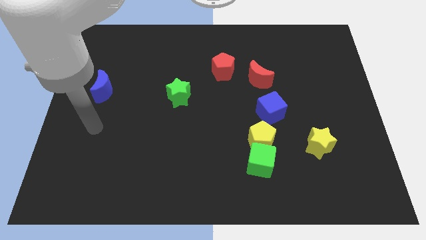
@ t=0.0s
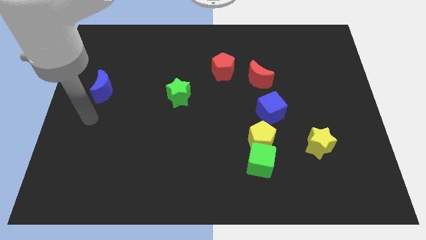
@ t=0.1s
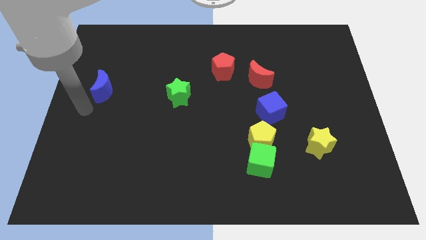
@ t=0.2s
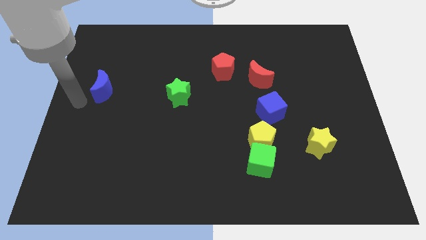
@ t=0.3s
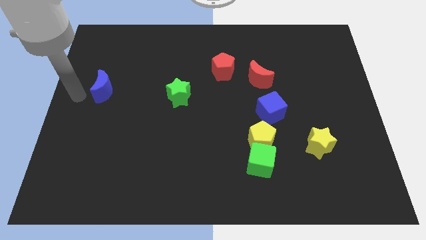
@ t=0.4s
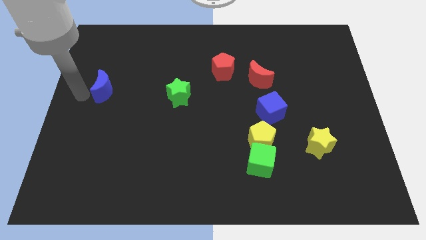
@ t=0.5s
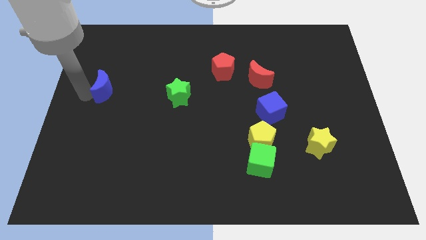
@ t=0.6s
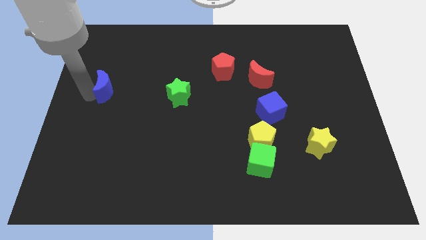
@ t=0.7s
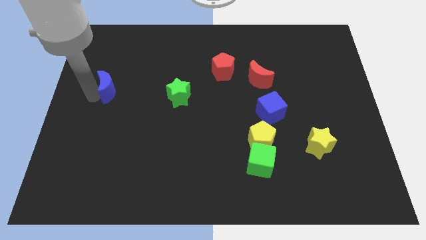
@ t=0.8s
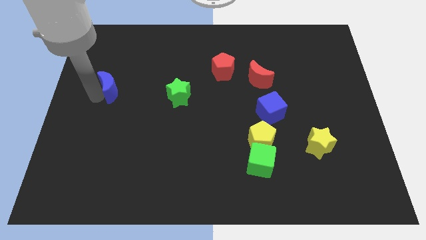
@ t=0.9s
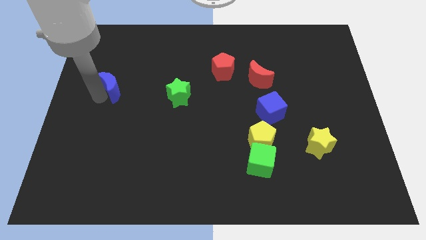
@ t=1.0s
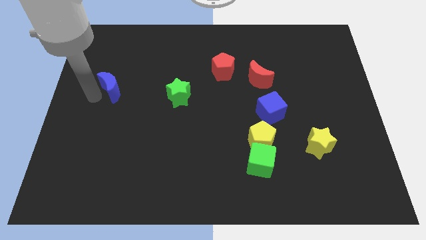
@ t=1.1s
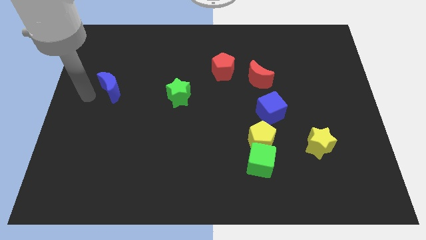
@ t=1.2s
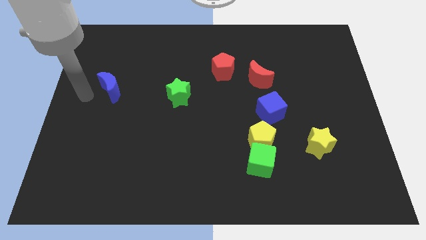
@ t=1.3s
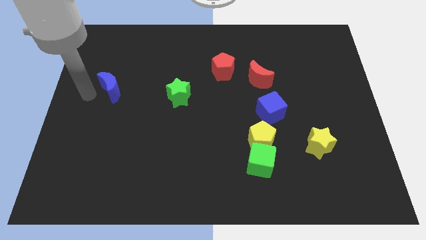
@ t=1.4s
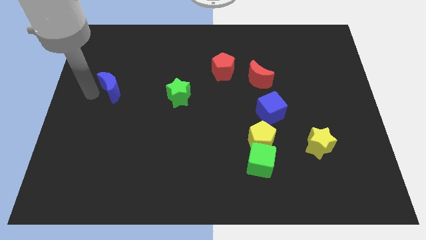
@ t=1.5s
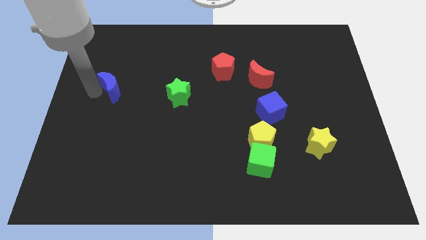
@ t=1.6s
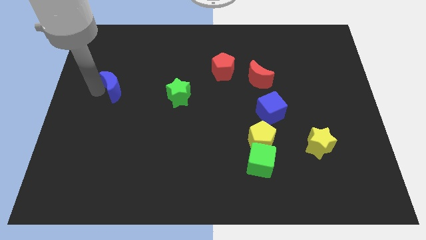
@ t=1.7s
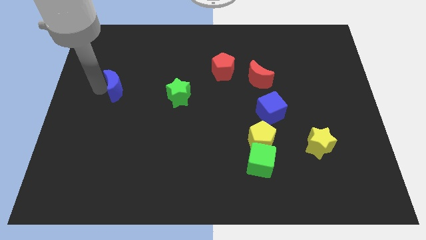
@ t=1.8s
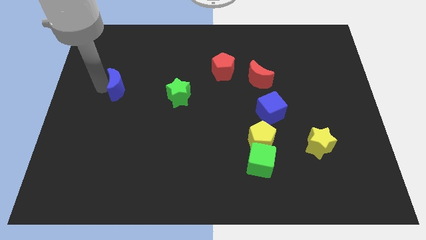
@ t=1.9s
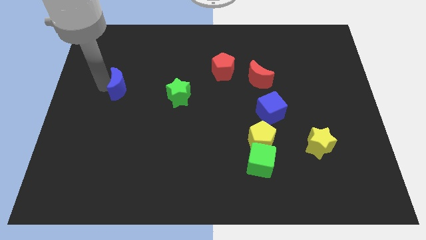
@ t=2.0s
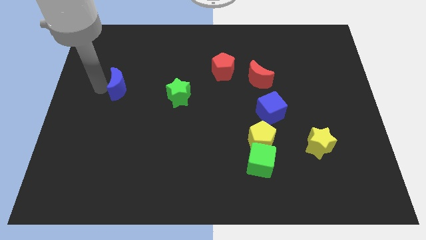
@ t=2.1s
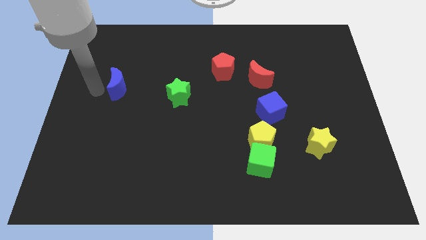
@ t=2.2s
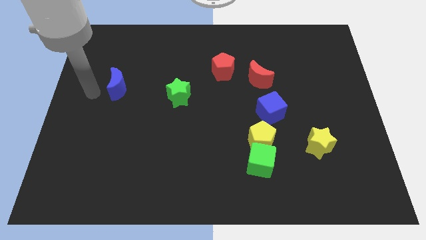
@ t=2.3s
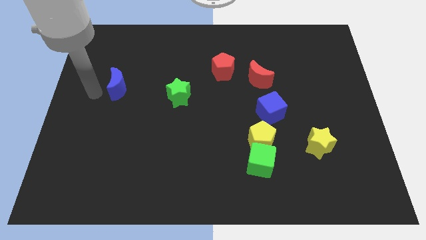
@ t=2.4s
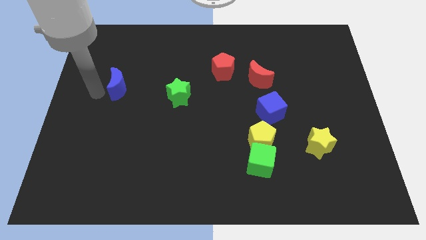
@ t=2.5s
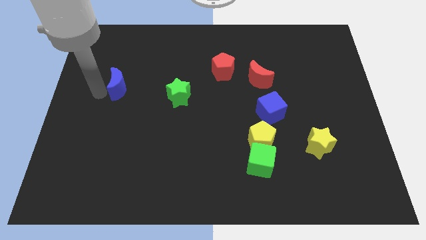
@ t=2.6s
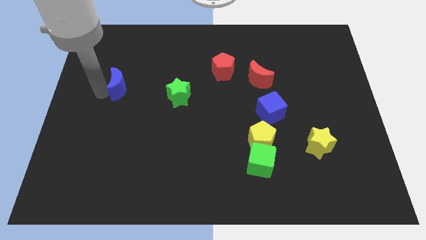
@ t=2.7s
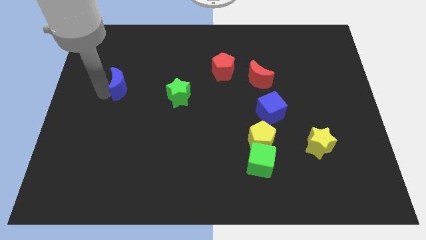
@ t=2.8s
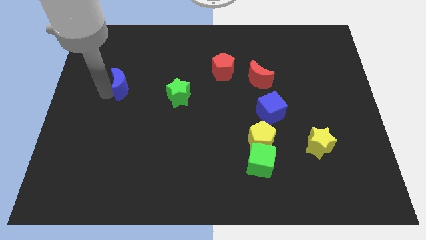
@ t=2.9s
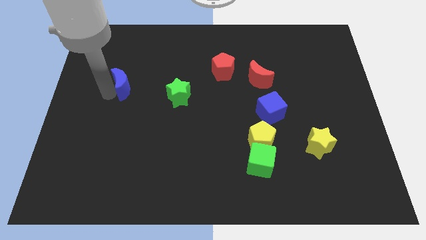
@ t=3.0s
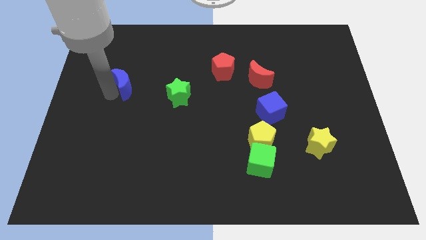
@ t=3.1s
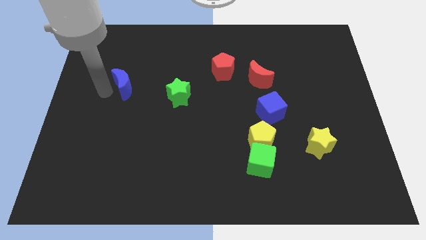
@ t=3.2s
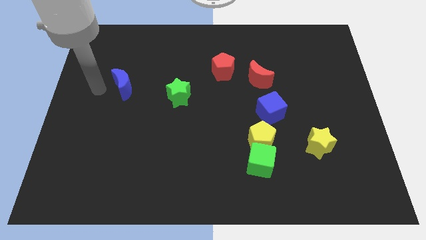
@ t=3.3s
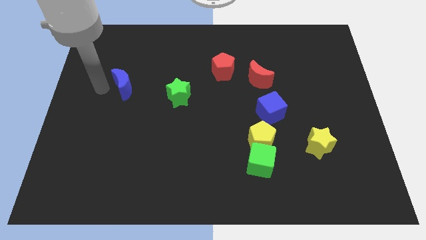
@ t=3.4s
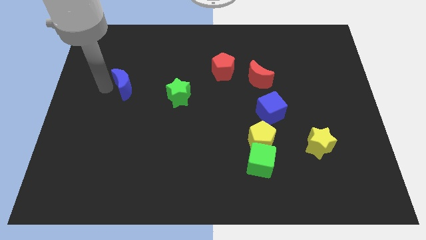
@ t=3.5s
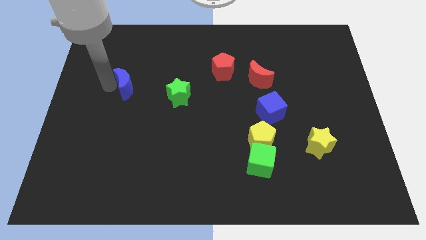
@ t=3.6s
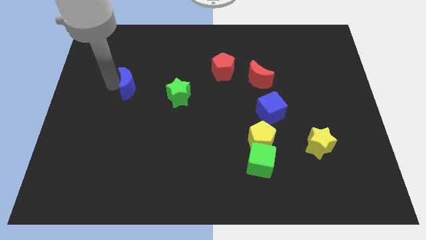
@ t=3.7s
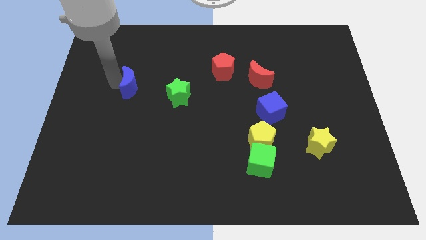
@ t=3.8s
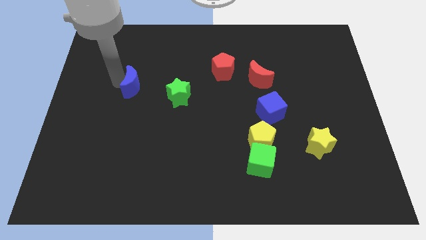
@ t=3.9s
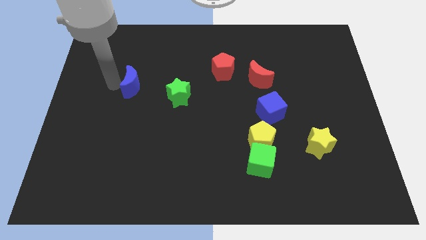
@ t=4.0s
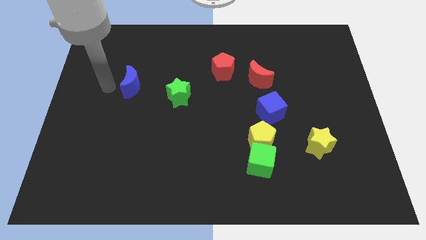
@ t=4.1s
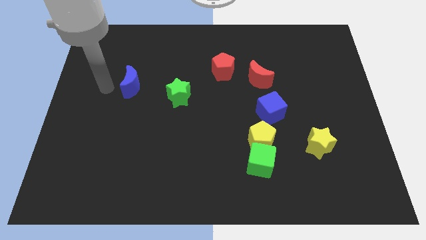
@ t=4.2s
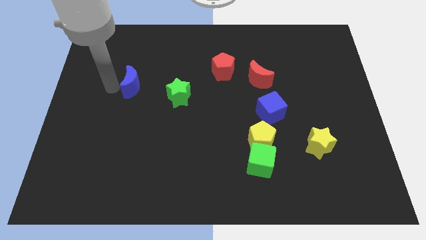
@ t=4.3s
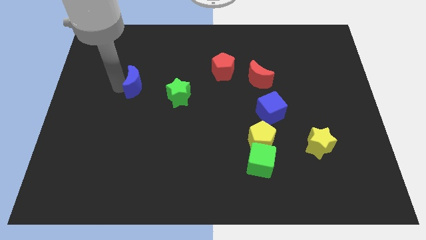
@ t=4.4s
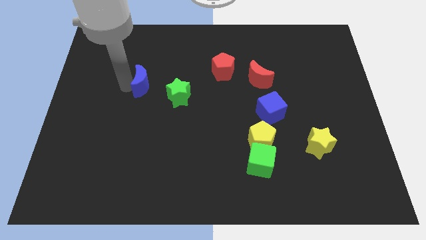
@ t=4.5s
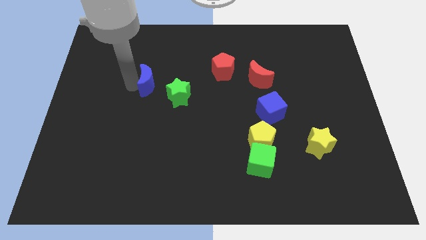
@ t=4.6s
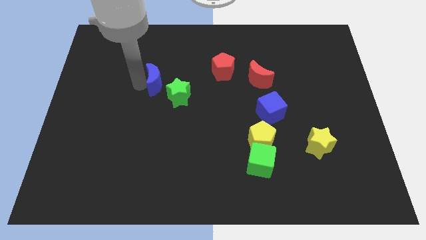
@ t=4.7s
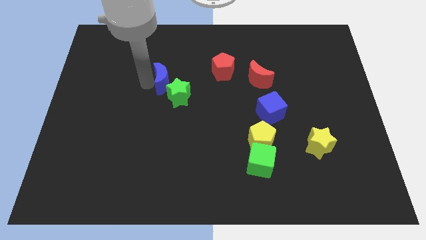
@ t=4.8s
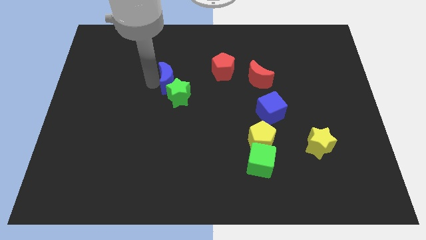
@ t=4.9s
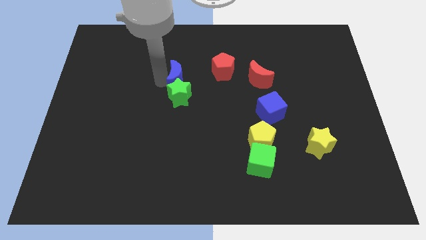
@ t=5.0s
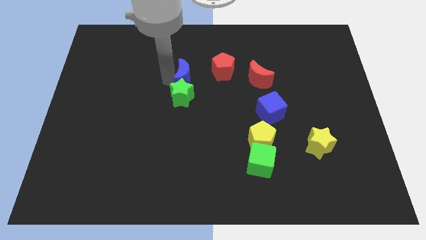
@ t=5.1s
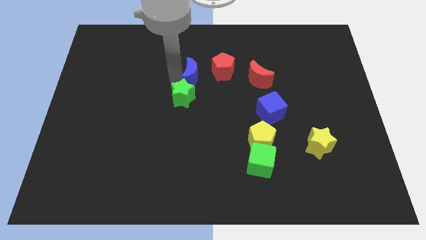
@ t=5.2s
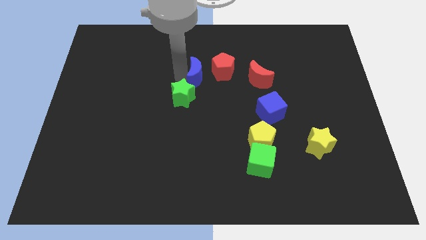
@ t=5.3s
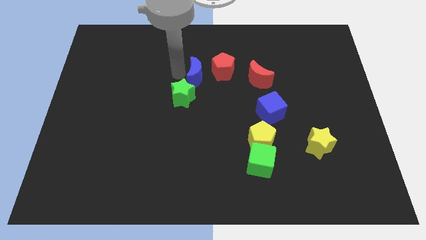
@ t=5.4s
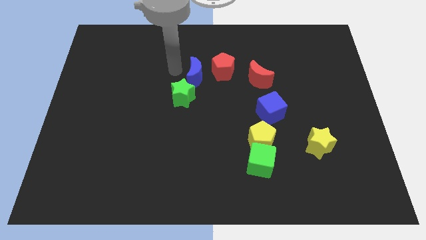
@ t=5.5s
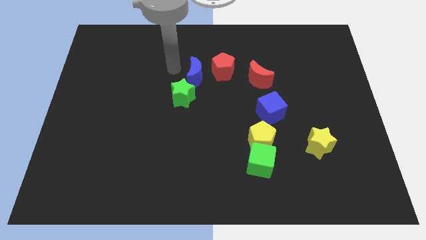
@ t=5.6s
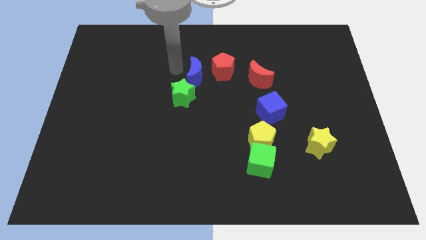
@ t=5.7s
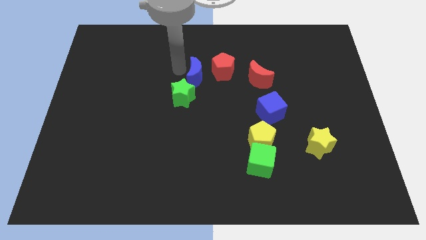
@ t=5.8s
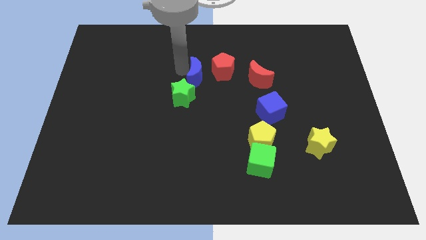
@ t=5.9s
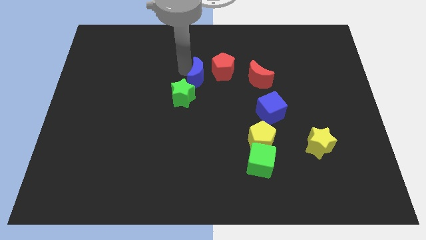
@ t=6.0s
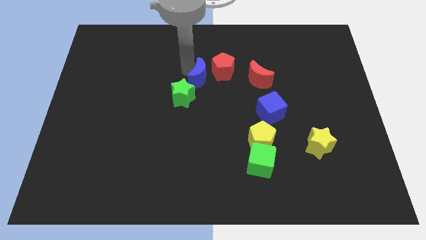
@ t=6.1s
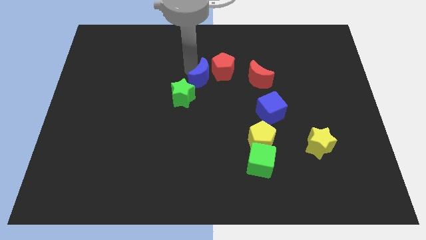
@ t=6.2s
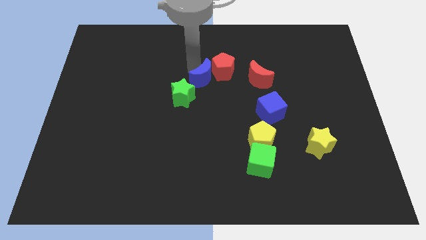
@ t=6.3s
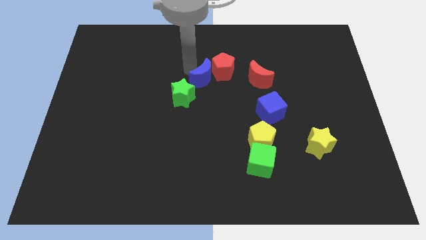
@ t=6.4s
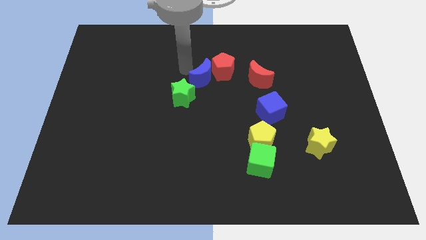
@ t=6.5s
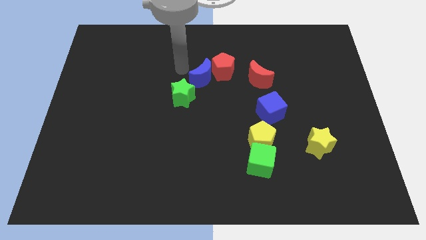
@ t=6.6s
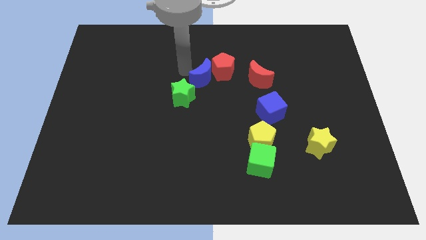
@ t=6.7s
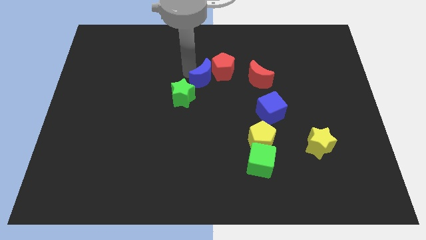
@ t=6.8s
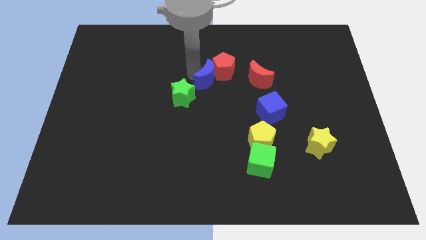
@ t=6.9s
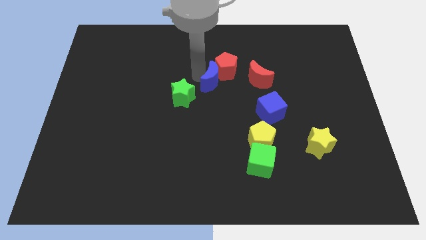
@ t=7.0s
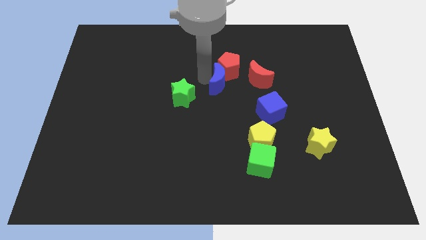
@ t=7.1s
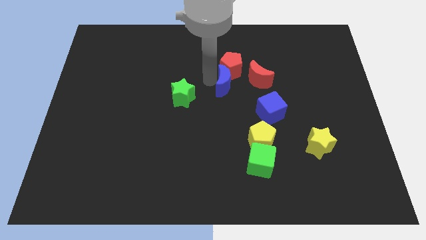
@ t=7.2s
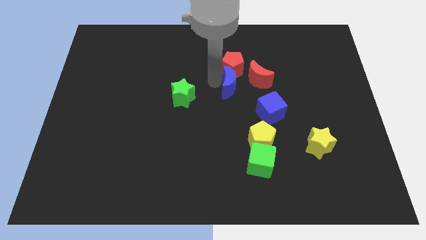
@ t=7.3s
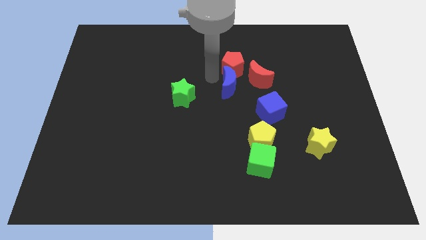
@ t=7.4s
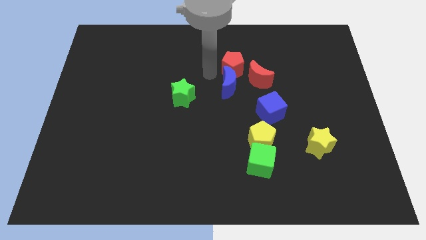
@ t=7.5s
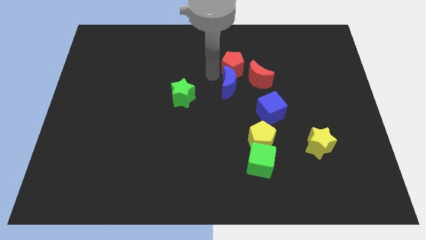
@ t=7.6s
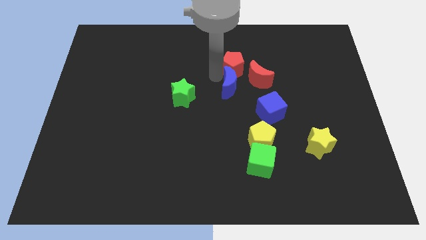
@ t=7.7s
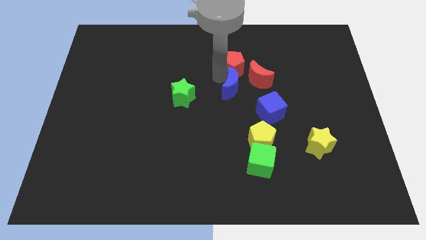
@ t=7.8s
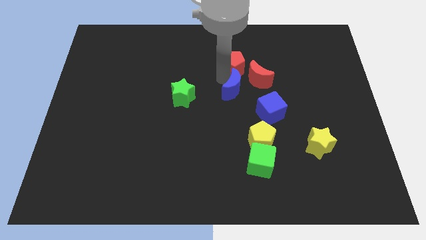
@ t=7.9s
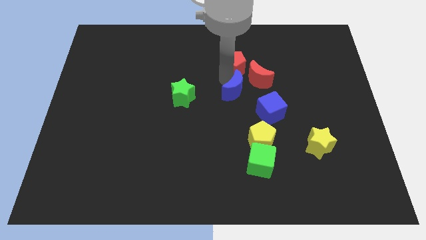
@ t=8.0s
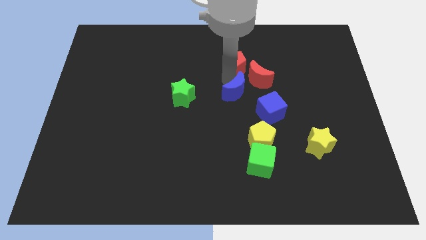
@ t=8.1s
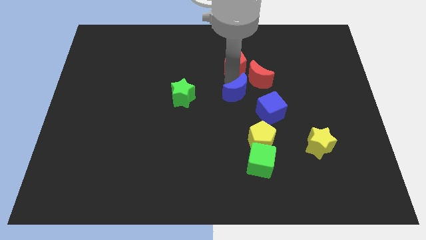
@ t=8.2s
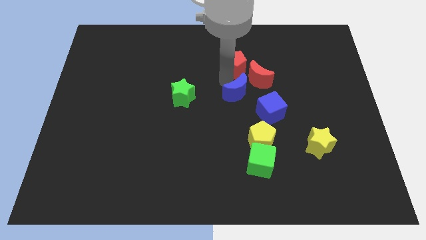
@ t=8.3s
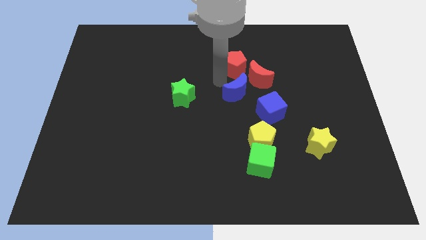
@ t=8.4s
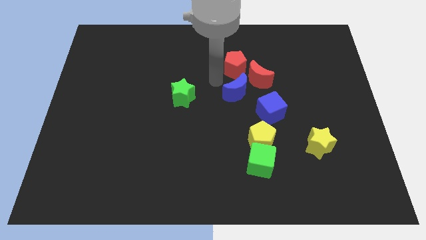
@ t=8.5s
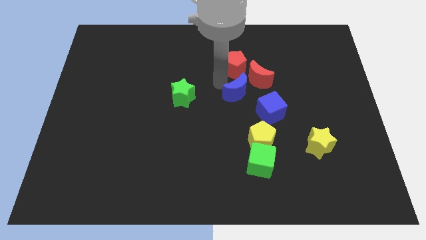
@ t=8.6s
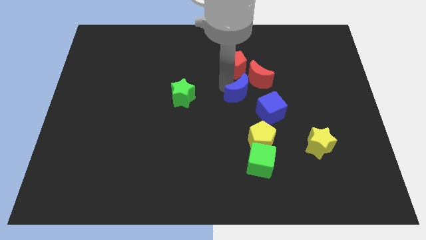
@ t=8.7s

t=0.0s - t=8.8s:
slide the blue moon above the yellow pentagon
